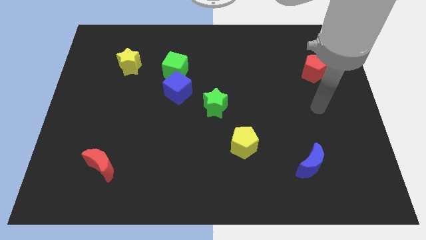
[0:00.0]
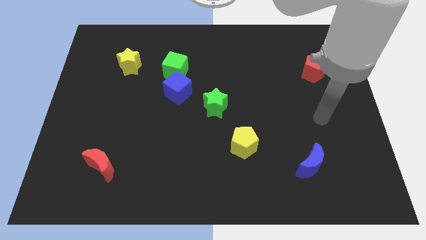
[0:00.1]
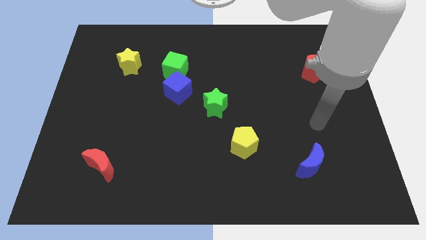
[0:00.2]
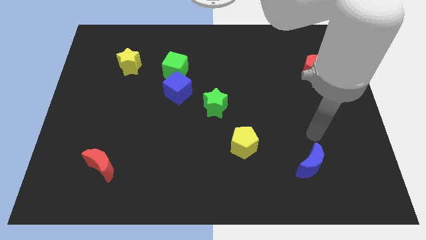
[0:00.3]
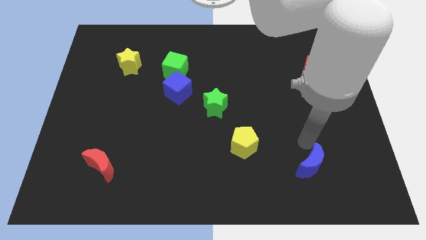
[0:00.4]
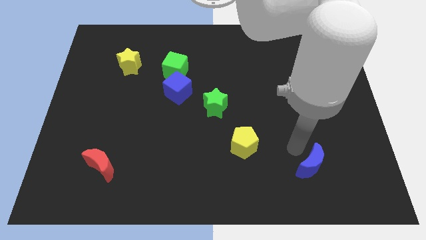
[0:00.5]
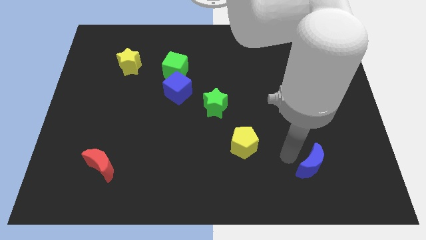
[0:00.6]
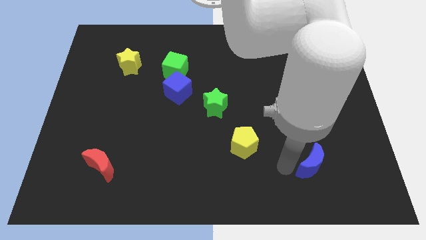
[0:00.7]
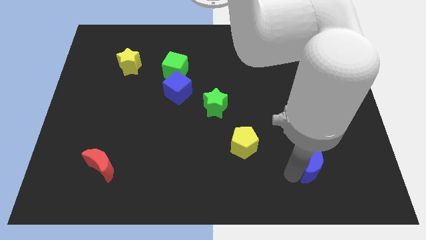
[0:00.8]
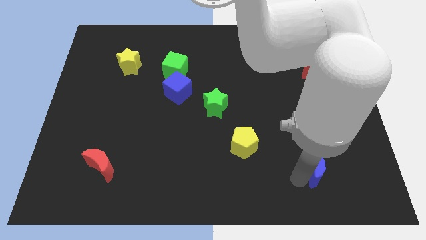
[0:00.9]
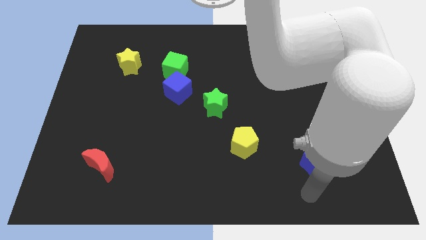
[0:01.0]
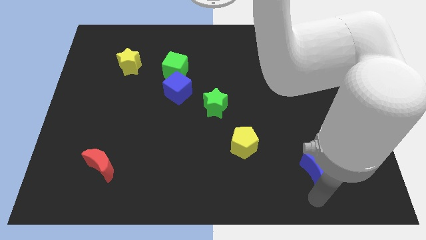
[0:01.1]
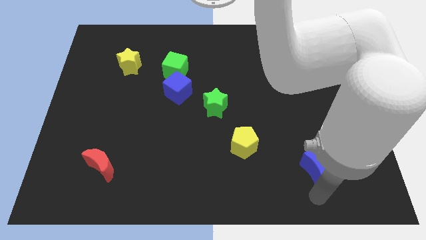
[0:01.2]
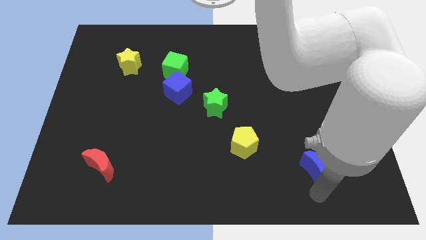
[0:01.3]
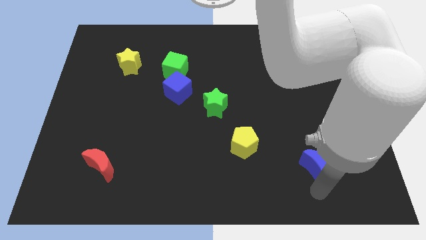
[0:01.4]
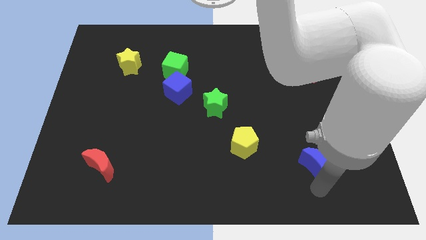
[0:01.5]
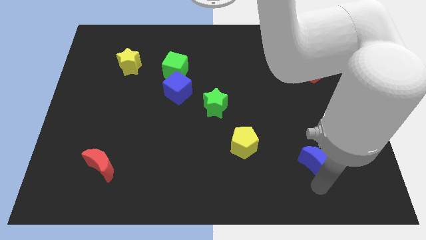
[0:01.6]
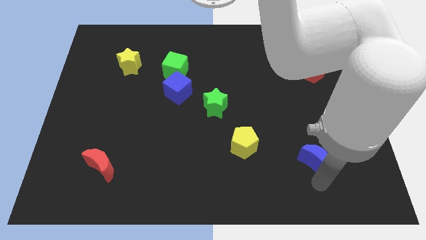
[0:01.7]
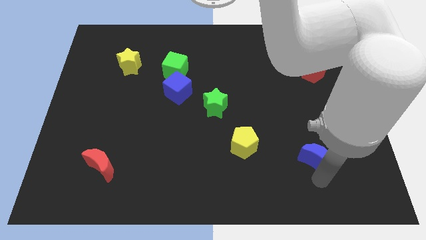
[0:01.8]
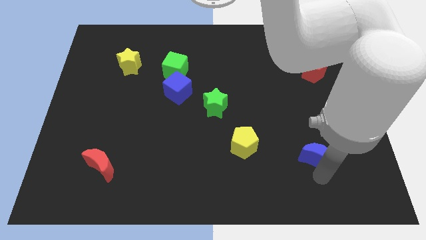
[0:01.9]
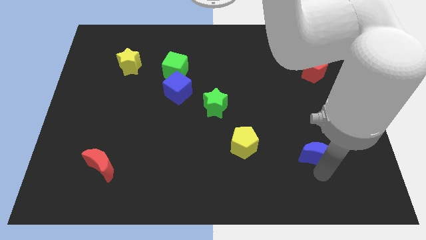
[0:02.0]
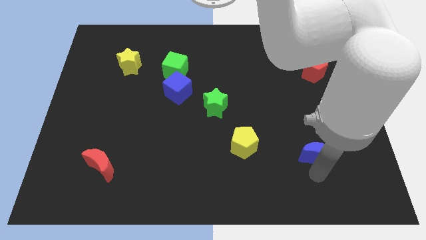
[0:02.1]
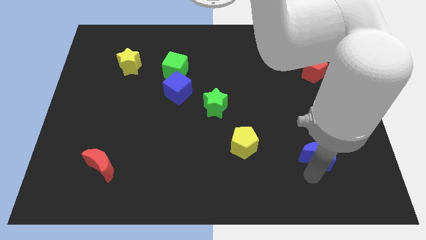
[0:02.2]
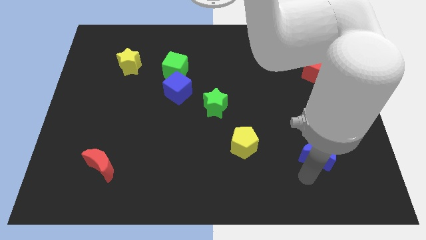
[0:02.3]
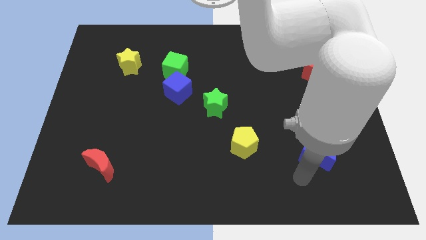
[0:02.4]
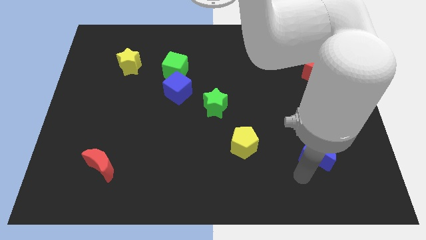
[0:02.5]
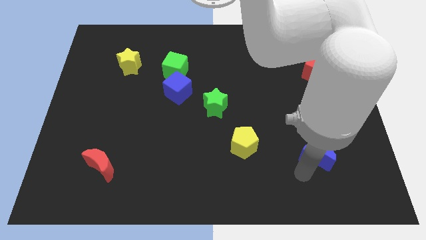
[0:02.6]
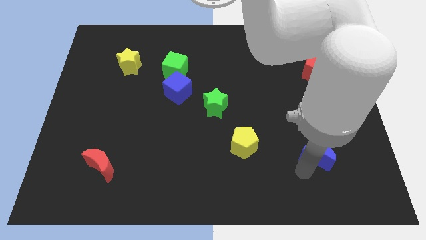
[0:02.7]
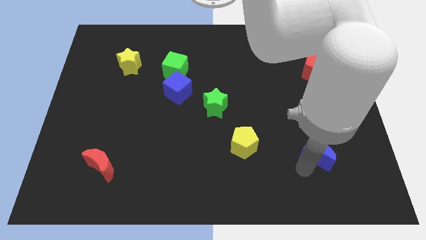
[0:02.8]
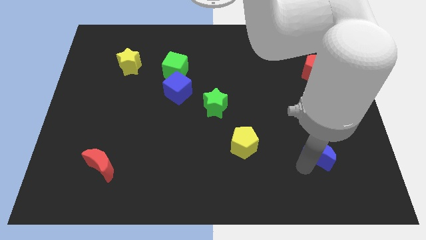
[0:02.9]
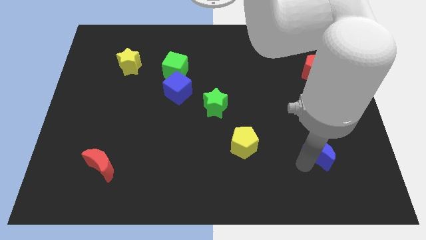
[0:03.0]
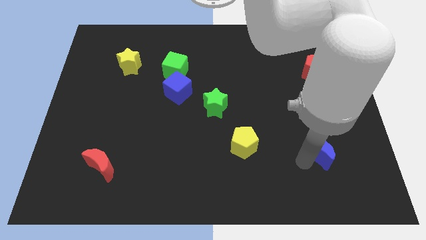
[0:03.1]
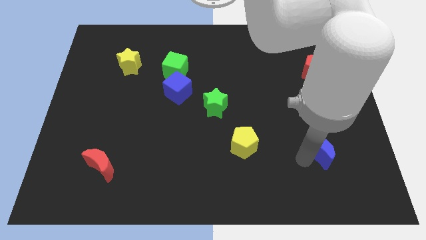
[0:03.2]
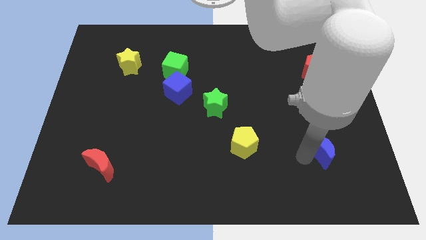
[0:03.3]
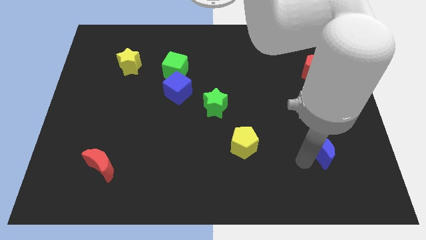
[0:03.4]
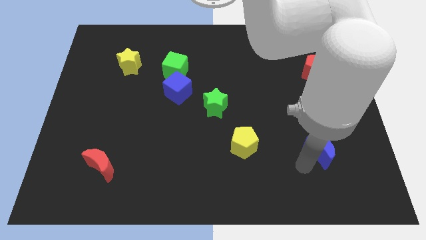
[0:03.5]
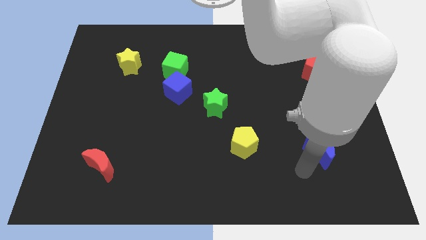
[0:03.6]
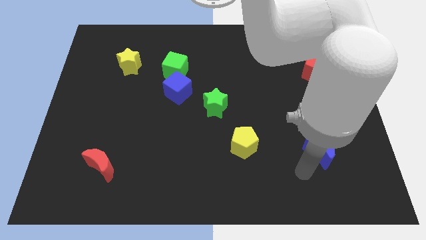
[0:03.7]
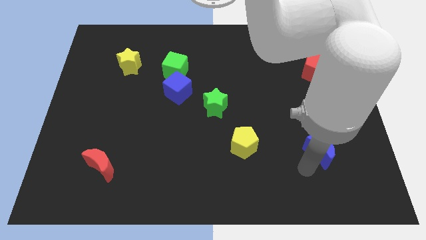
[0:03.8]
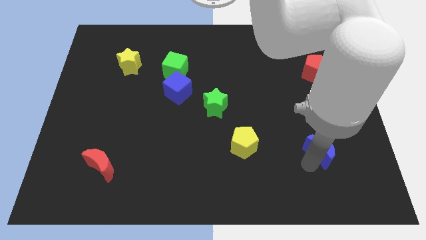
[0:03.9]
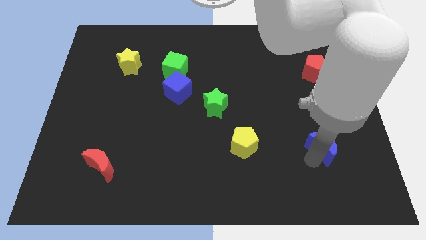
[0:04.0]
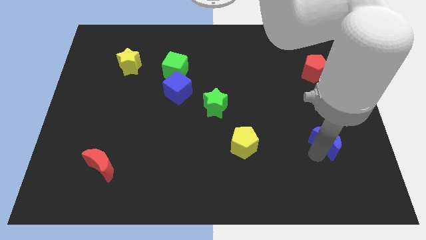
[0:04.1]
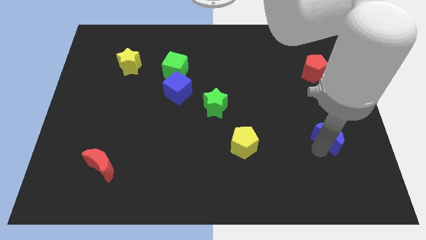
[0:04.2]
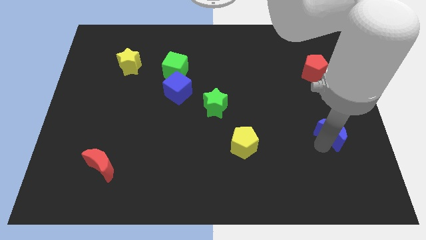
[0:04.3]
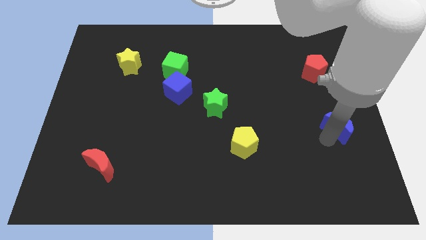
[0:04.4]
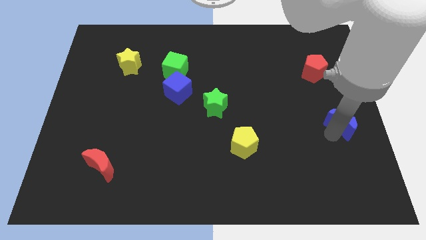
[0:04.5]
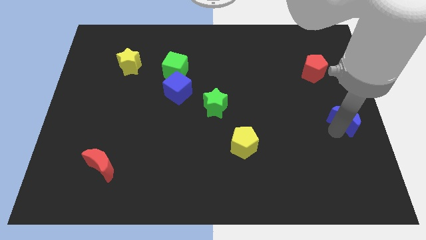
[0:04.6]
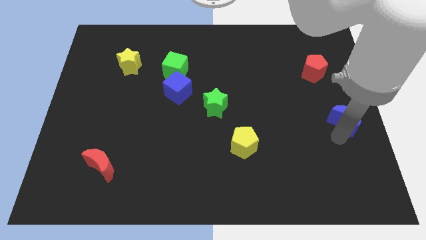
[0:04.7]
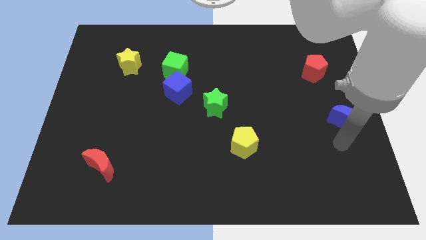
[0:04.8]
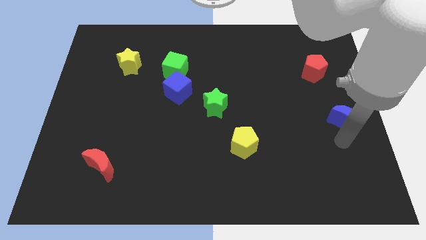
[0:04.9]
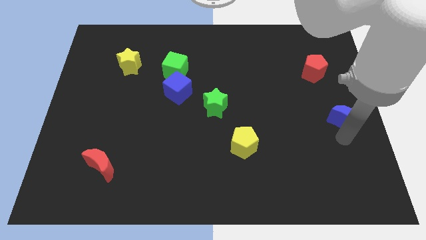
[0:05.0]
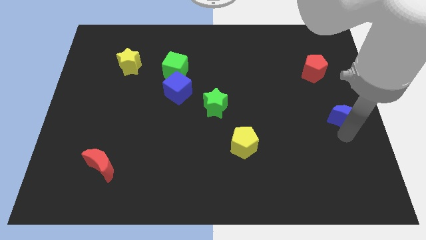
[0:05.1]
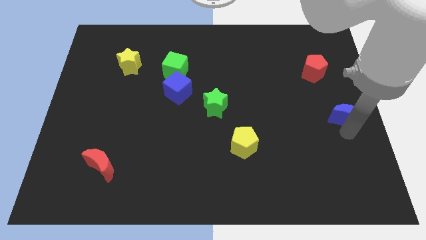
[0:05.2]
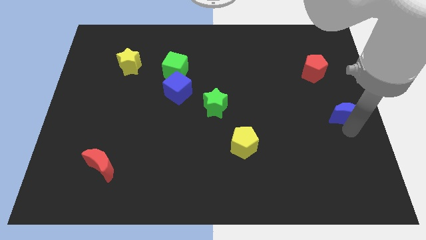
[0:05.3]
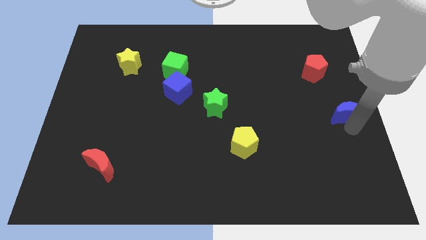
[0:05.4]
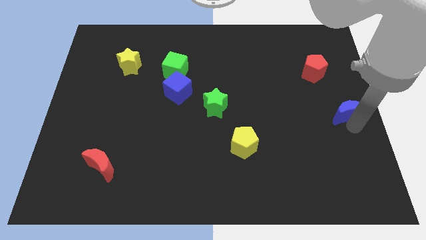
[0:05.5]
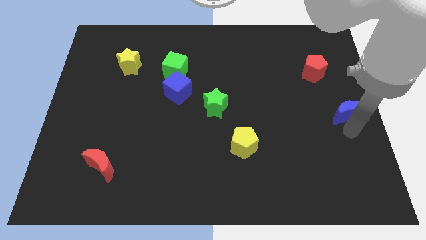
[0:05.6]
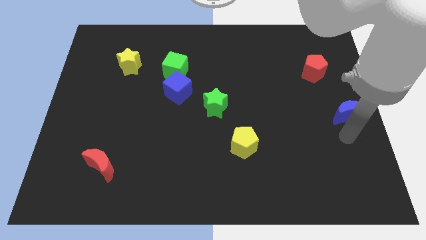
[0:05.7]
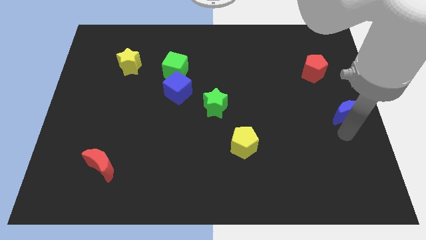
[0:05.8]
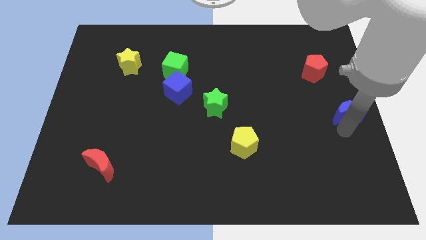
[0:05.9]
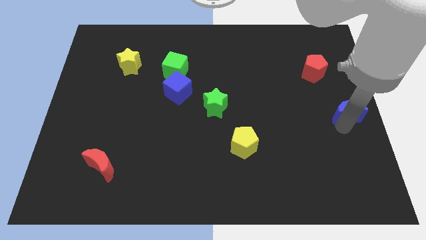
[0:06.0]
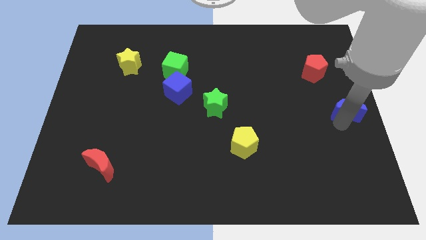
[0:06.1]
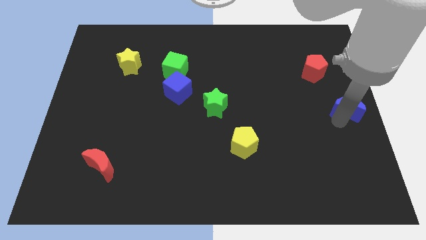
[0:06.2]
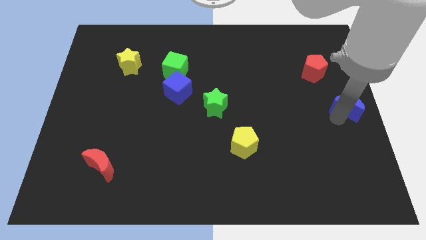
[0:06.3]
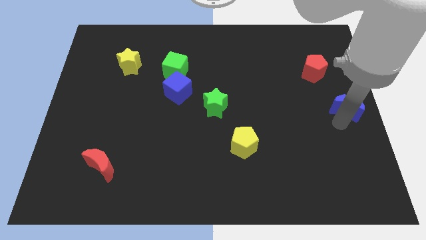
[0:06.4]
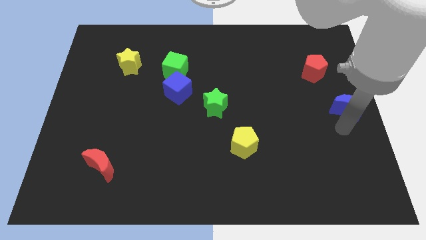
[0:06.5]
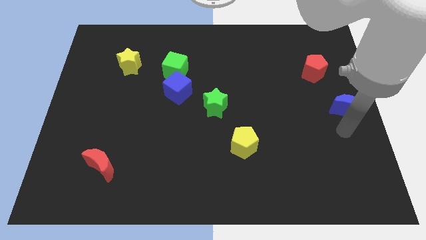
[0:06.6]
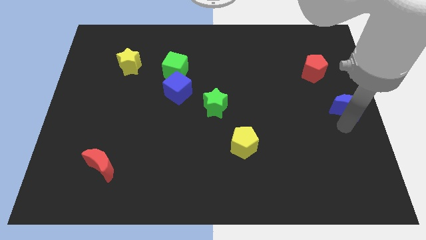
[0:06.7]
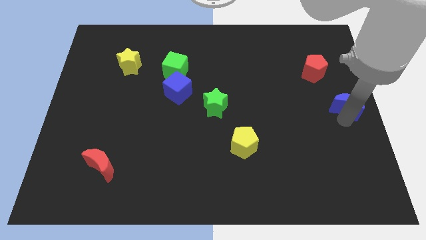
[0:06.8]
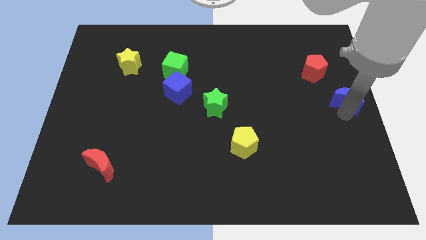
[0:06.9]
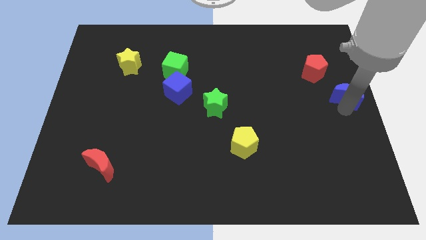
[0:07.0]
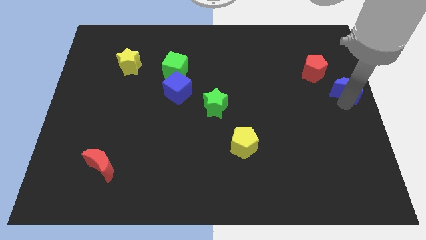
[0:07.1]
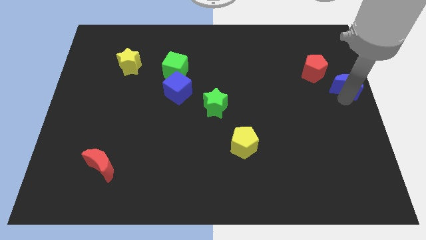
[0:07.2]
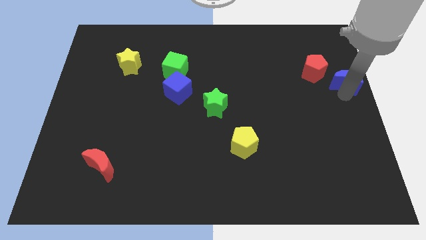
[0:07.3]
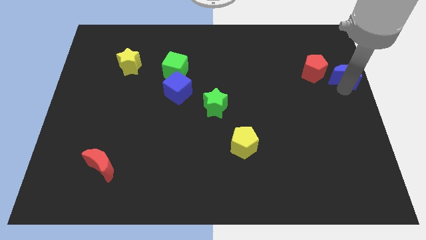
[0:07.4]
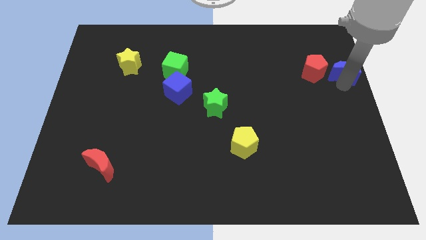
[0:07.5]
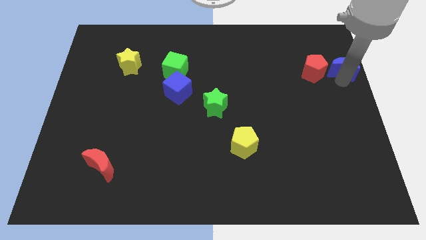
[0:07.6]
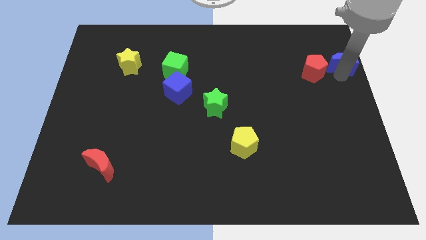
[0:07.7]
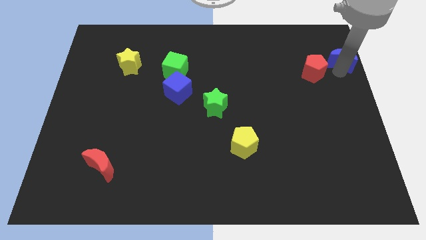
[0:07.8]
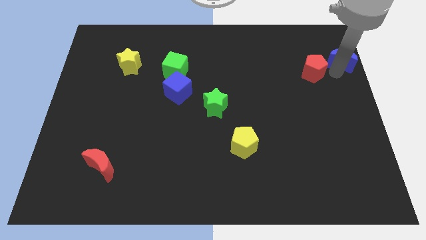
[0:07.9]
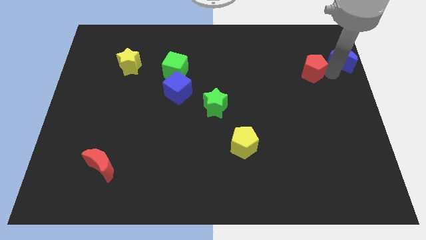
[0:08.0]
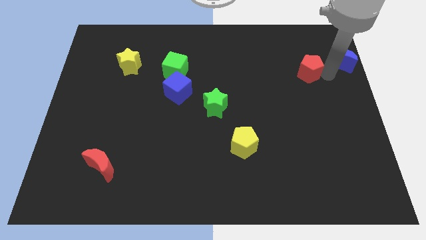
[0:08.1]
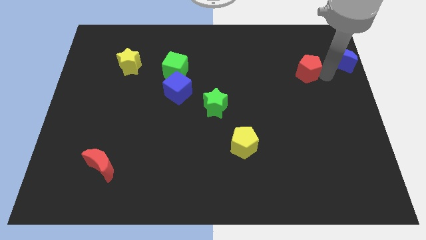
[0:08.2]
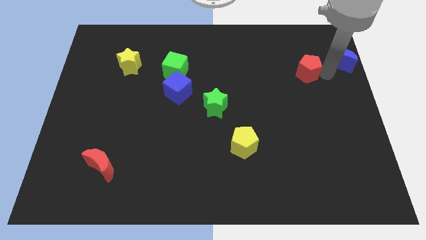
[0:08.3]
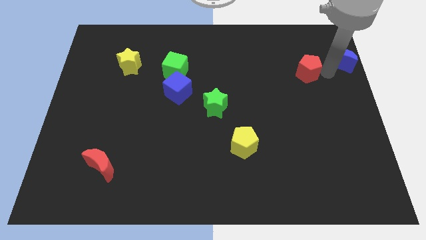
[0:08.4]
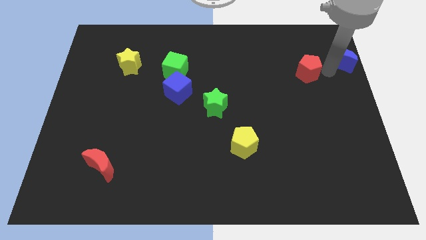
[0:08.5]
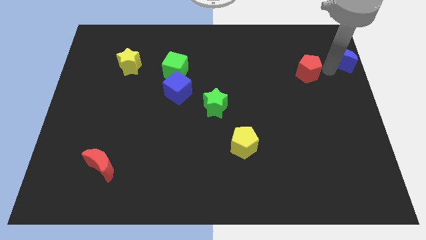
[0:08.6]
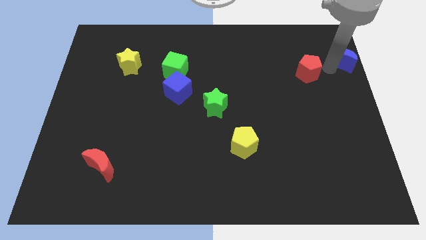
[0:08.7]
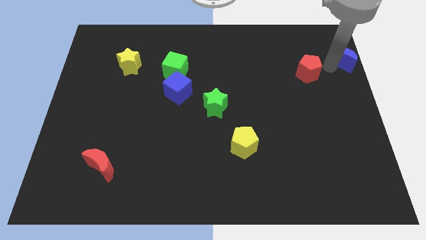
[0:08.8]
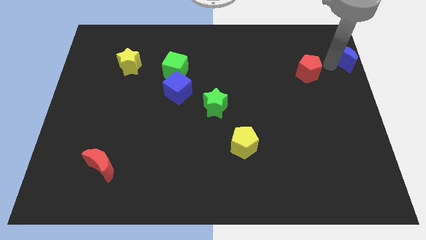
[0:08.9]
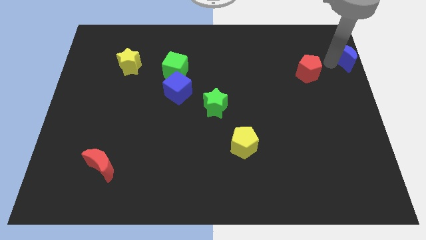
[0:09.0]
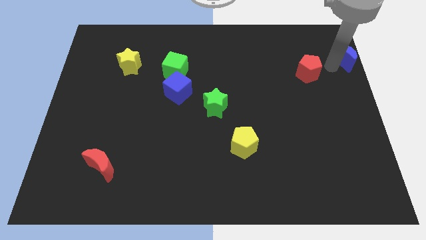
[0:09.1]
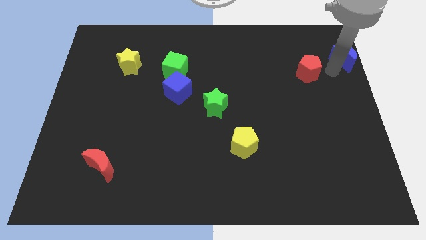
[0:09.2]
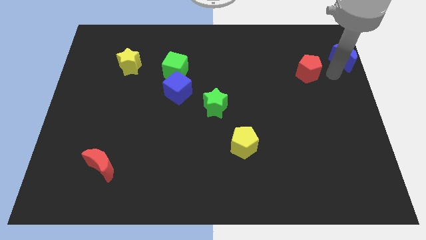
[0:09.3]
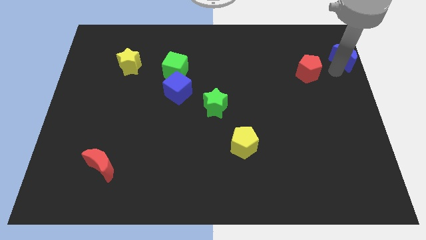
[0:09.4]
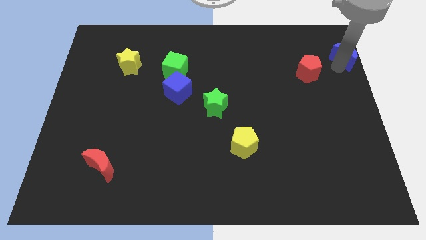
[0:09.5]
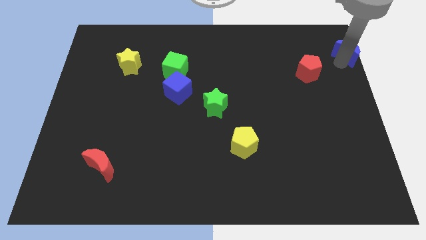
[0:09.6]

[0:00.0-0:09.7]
push the blue moon to the top right
